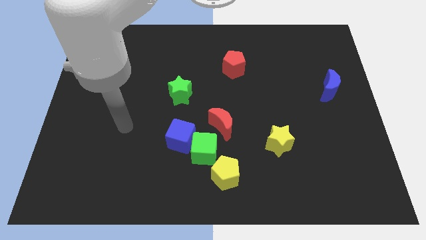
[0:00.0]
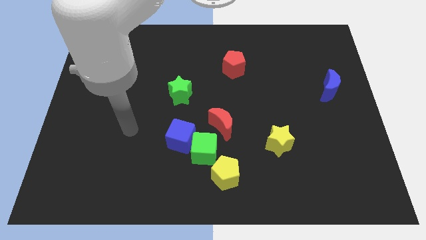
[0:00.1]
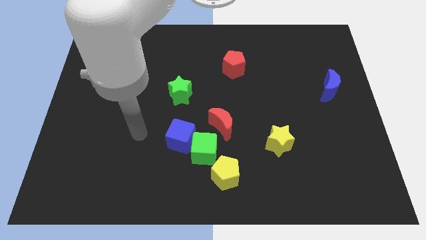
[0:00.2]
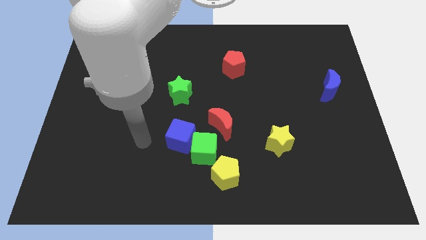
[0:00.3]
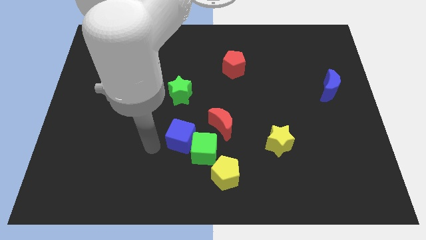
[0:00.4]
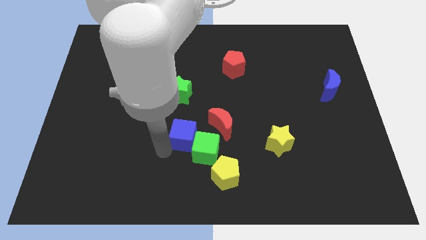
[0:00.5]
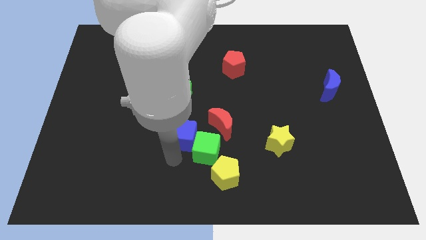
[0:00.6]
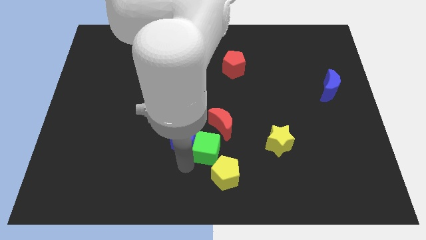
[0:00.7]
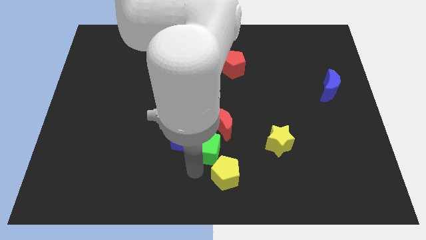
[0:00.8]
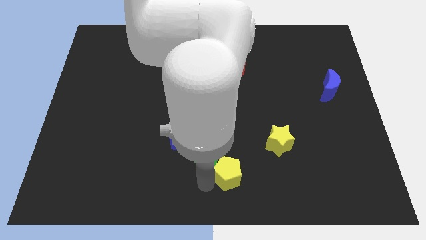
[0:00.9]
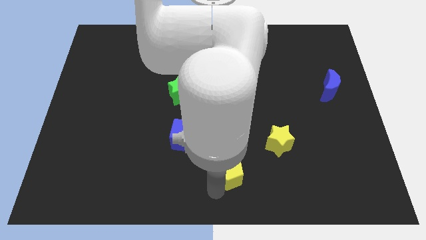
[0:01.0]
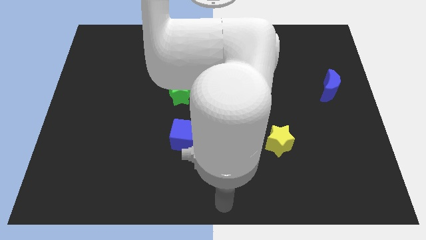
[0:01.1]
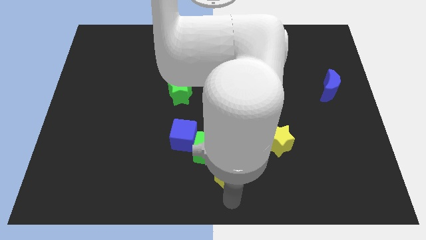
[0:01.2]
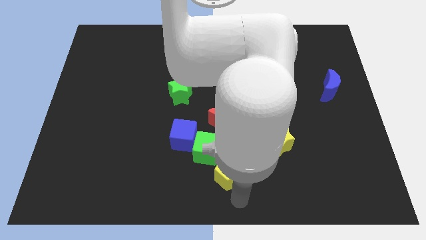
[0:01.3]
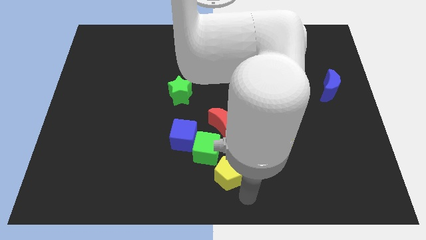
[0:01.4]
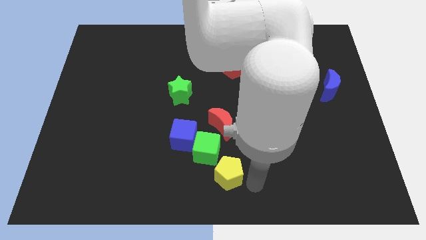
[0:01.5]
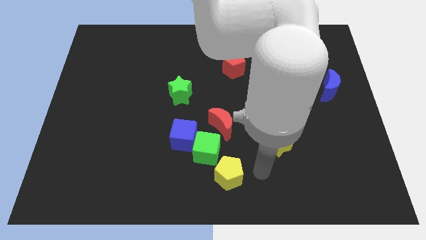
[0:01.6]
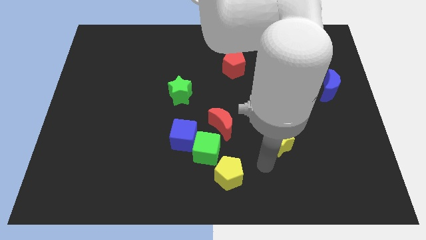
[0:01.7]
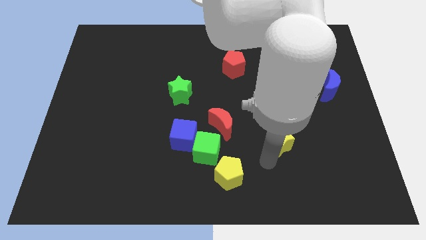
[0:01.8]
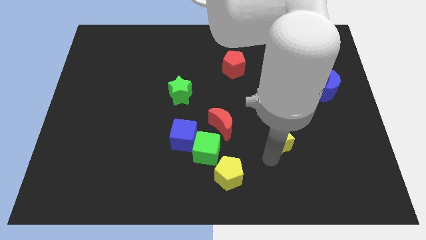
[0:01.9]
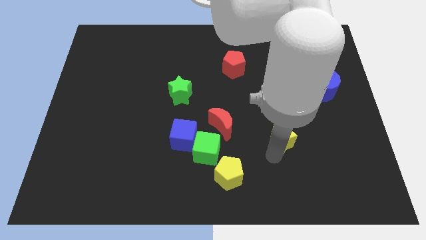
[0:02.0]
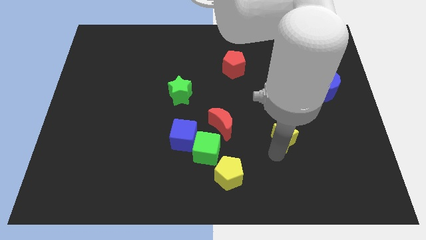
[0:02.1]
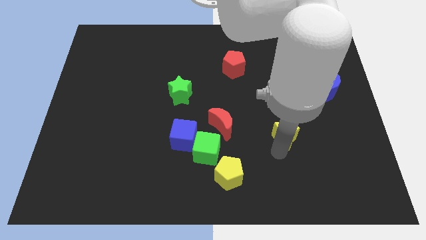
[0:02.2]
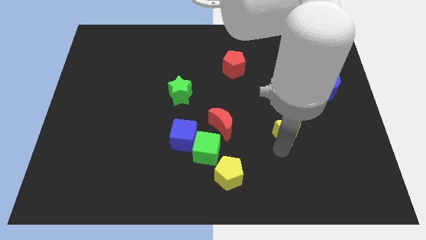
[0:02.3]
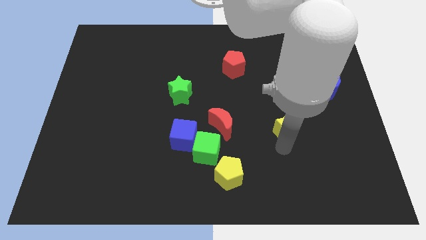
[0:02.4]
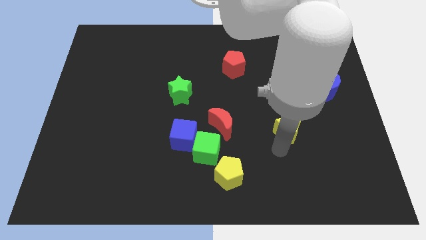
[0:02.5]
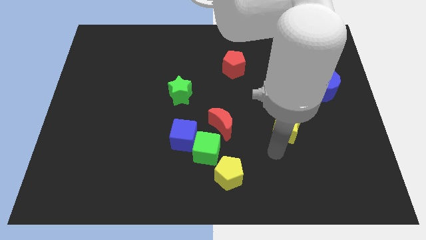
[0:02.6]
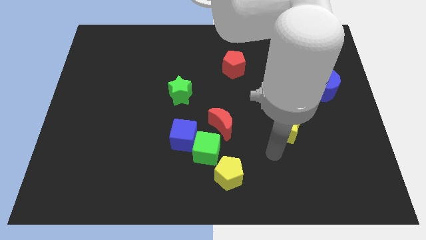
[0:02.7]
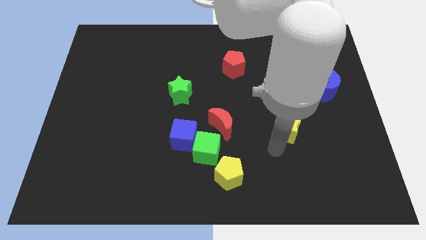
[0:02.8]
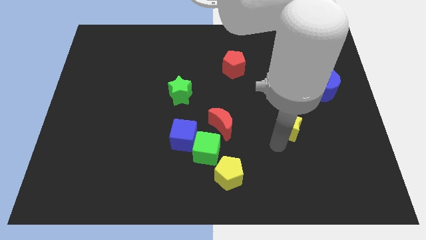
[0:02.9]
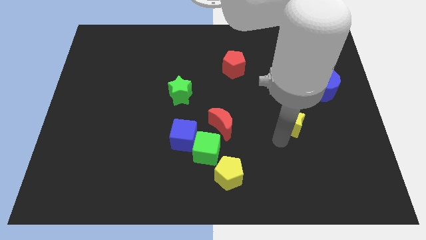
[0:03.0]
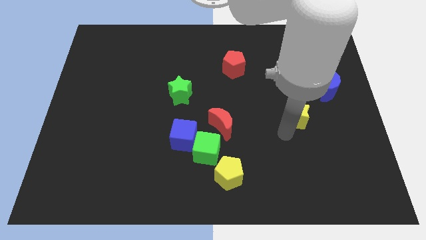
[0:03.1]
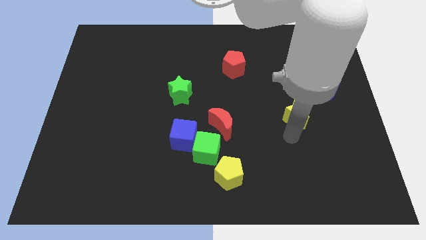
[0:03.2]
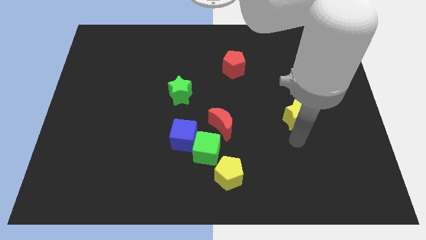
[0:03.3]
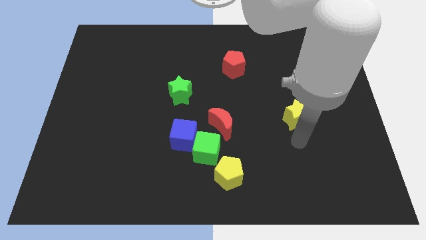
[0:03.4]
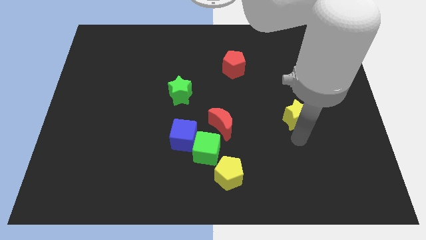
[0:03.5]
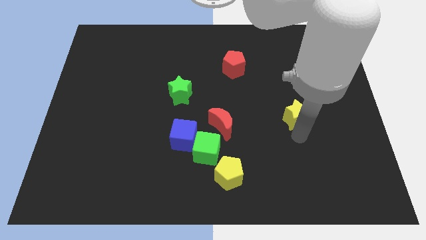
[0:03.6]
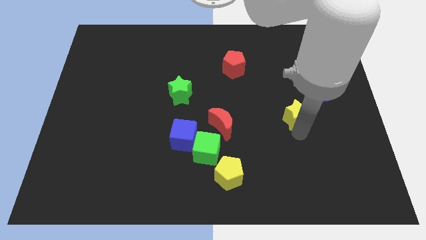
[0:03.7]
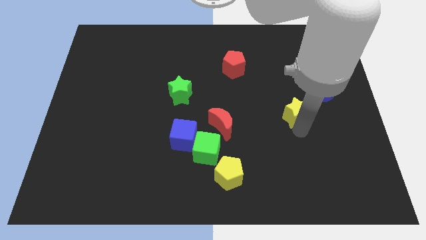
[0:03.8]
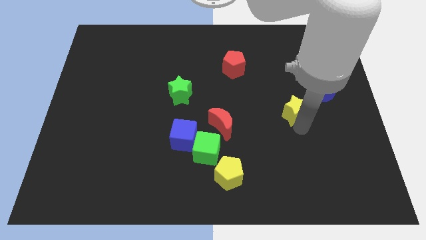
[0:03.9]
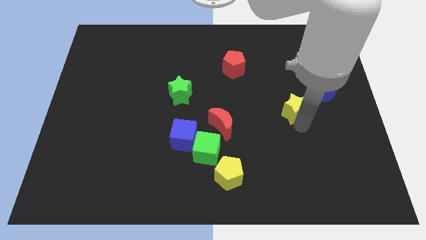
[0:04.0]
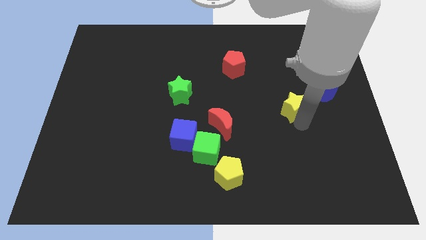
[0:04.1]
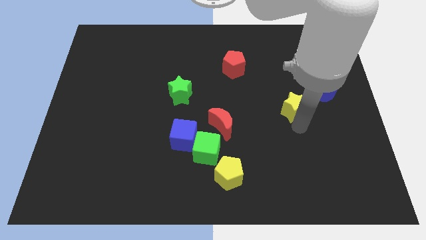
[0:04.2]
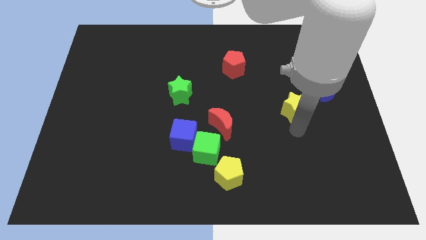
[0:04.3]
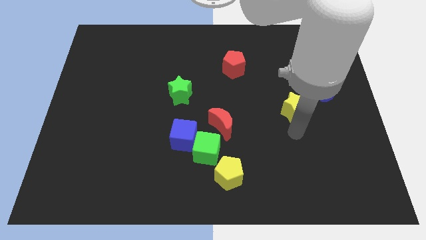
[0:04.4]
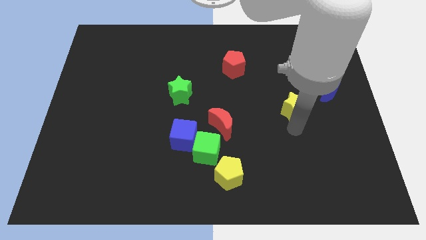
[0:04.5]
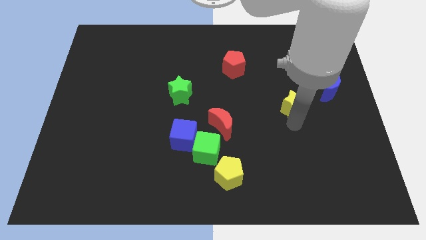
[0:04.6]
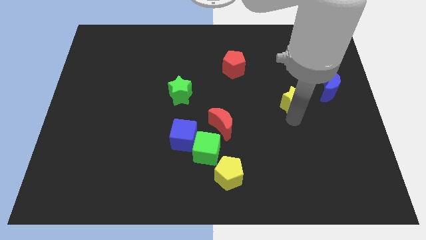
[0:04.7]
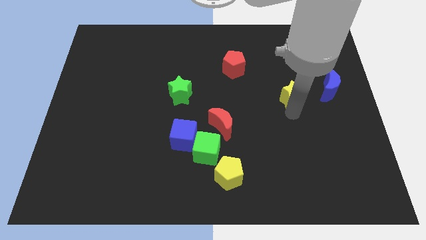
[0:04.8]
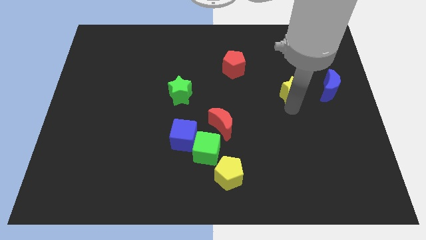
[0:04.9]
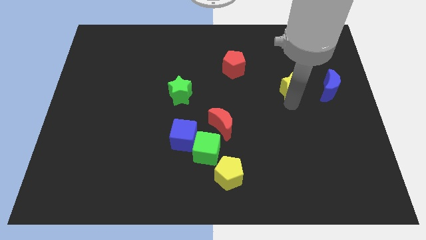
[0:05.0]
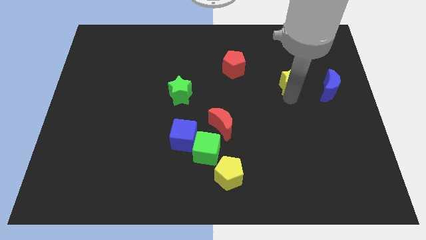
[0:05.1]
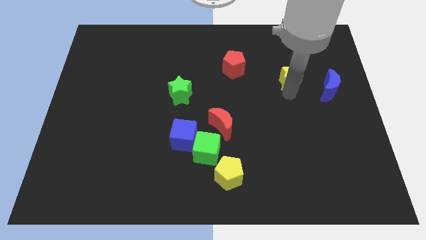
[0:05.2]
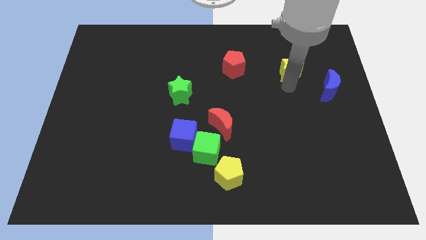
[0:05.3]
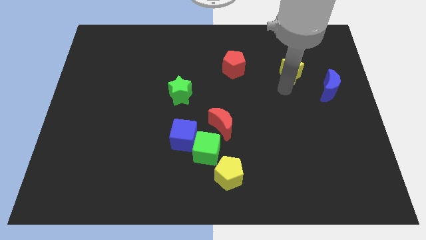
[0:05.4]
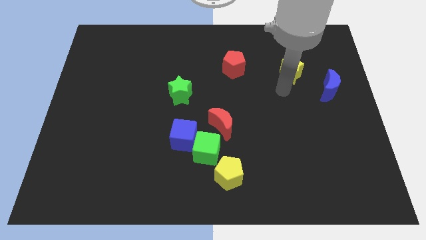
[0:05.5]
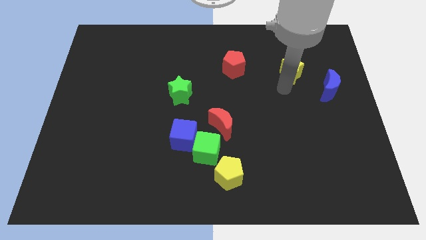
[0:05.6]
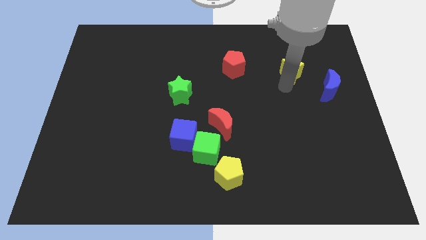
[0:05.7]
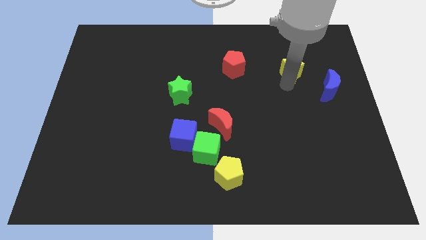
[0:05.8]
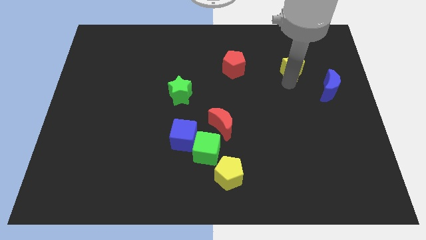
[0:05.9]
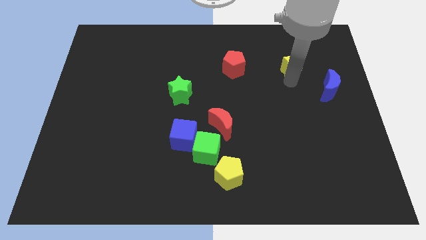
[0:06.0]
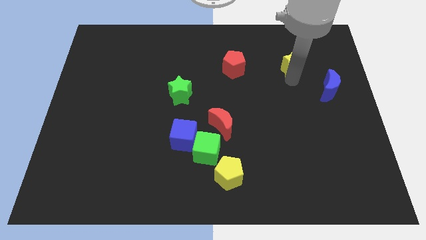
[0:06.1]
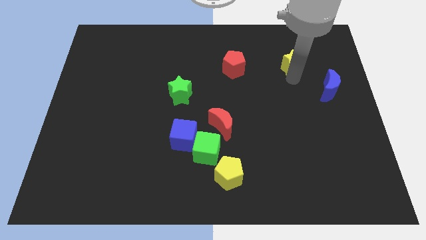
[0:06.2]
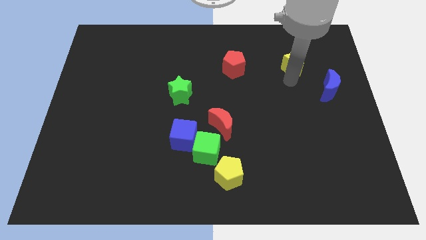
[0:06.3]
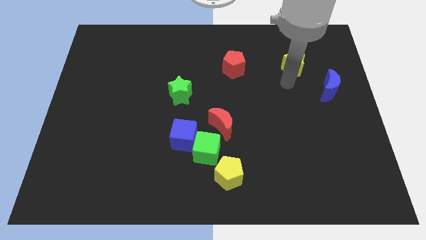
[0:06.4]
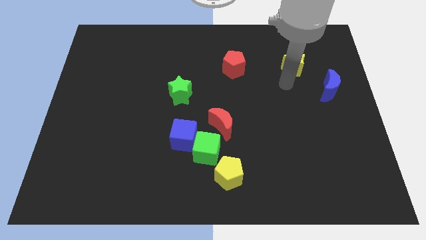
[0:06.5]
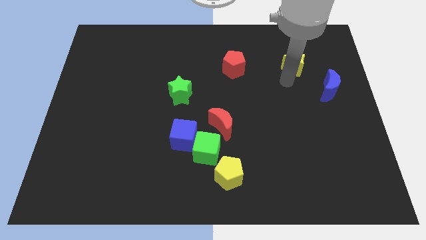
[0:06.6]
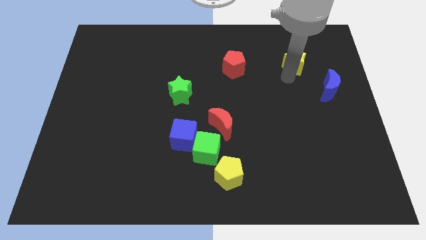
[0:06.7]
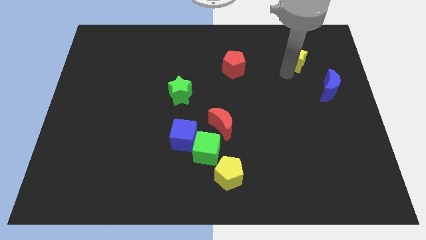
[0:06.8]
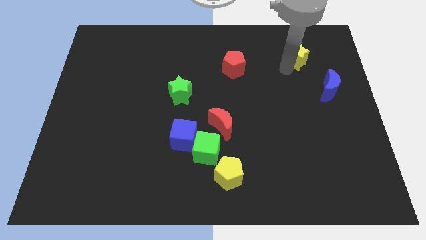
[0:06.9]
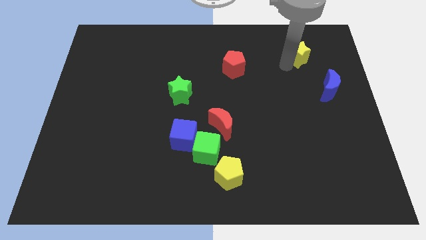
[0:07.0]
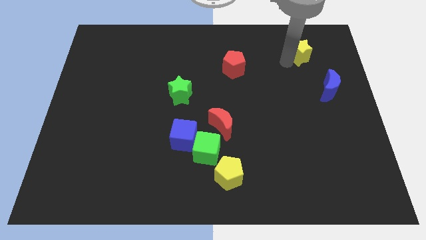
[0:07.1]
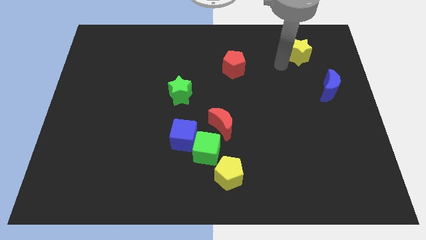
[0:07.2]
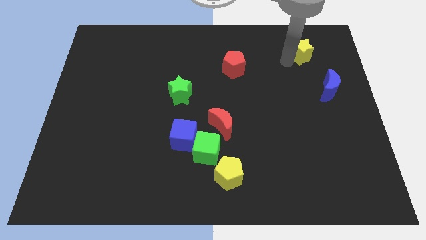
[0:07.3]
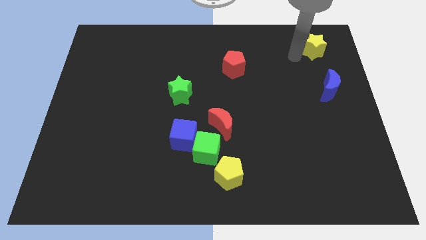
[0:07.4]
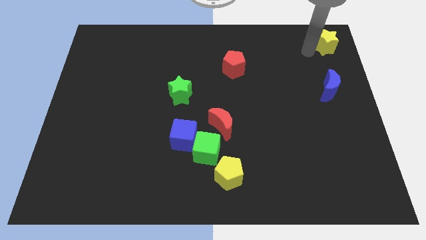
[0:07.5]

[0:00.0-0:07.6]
push the yellow star to the top right corner
